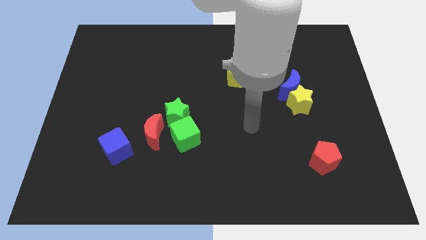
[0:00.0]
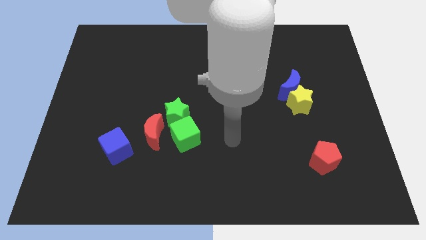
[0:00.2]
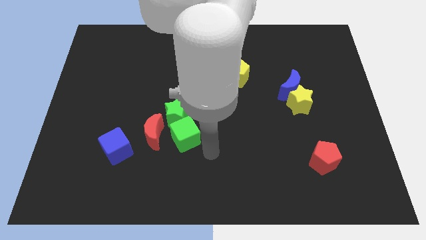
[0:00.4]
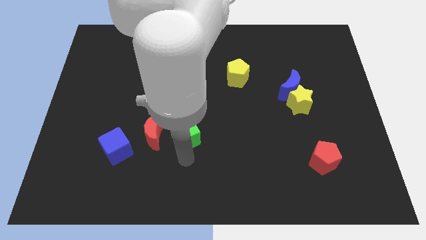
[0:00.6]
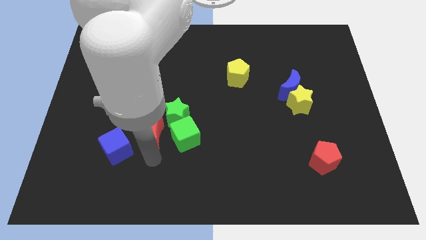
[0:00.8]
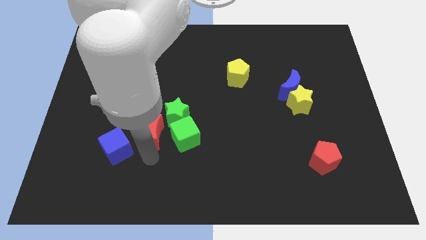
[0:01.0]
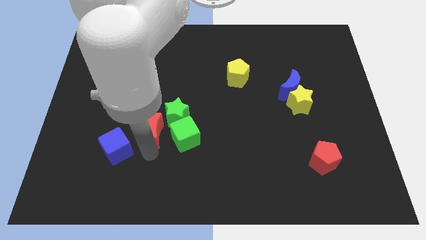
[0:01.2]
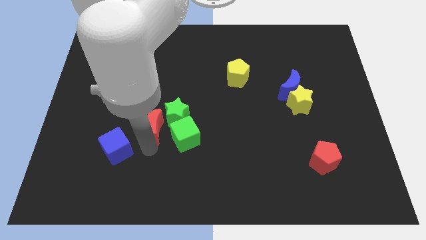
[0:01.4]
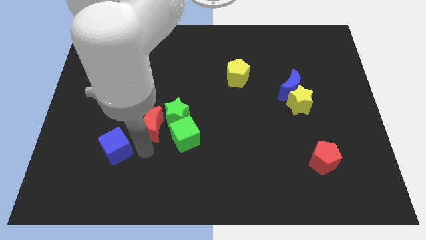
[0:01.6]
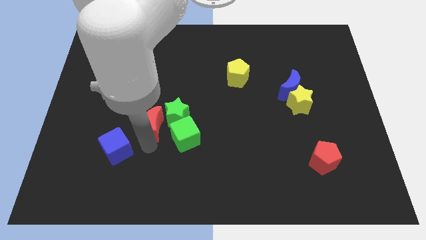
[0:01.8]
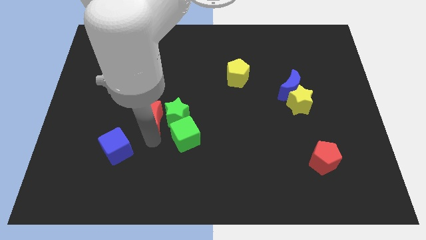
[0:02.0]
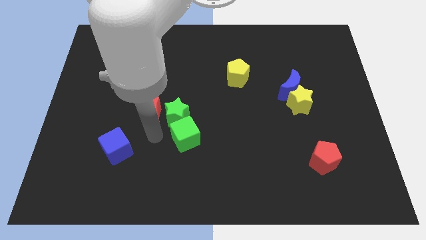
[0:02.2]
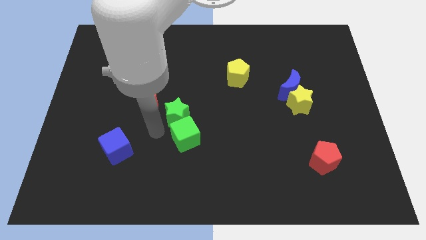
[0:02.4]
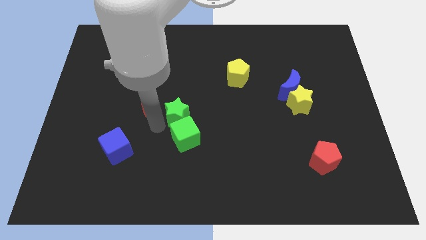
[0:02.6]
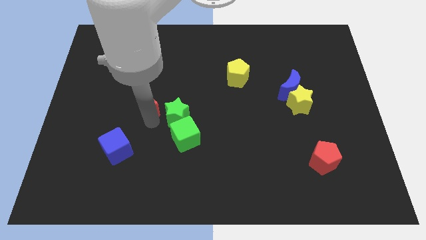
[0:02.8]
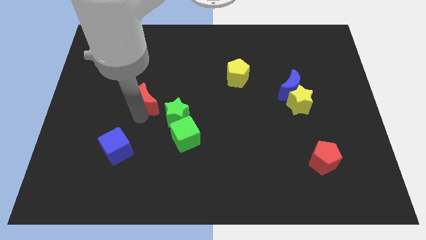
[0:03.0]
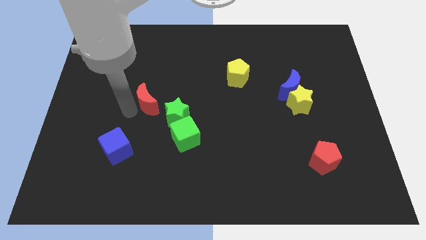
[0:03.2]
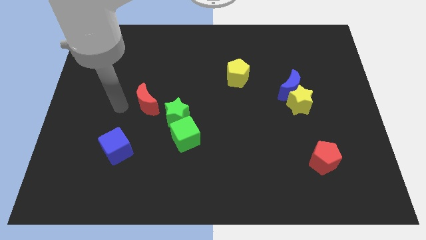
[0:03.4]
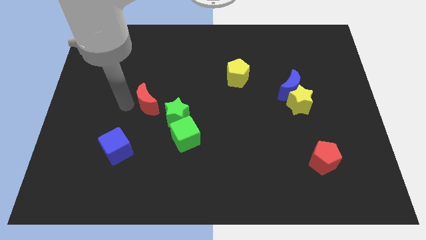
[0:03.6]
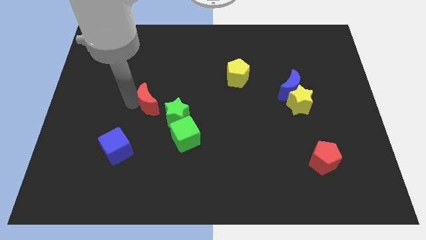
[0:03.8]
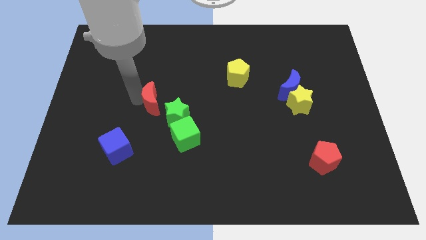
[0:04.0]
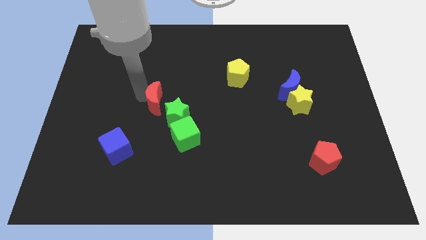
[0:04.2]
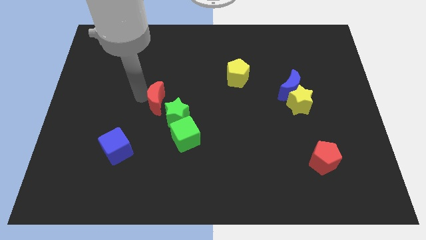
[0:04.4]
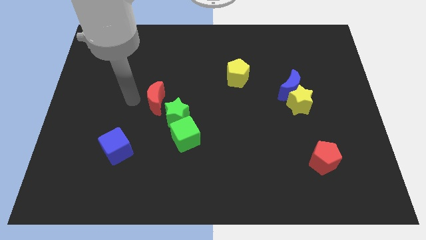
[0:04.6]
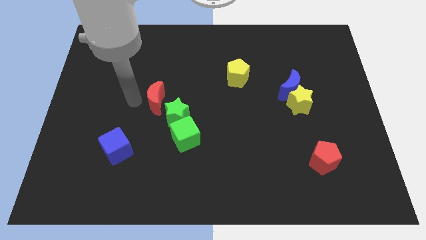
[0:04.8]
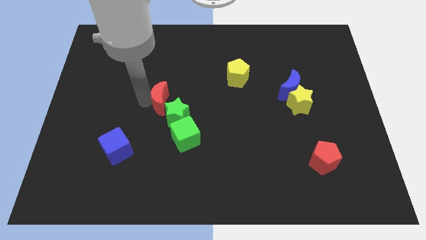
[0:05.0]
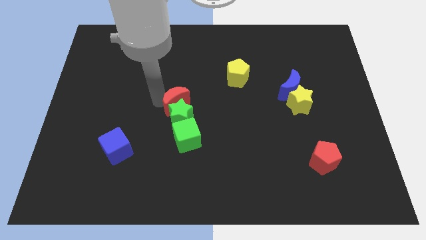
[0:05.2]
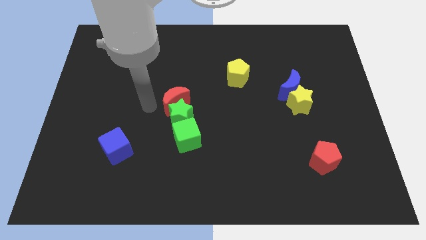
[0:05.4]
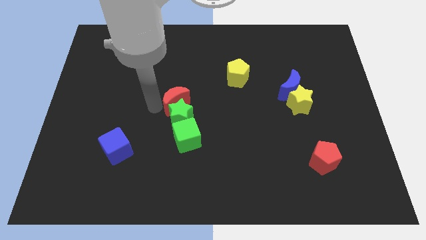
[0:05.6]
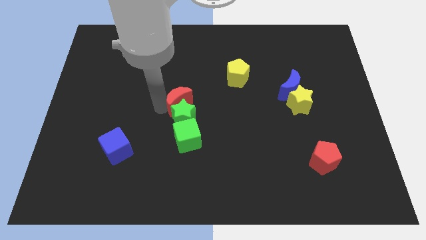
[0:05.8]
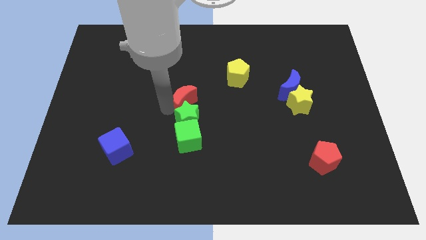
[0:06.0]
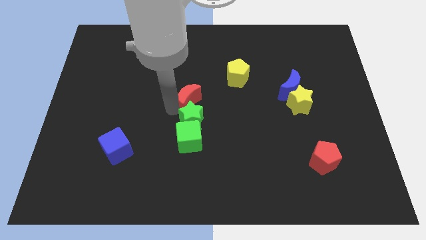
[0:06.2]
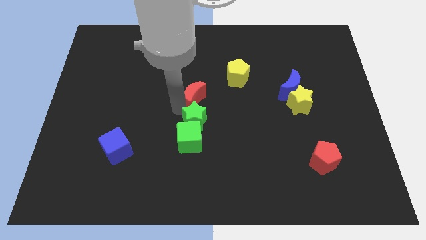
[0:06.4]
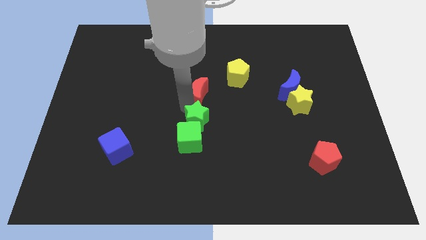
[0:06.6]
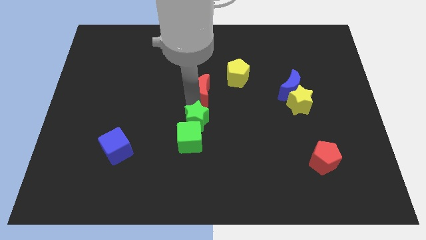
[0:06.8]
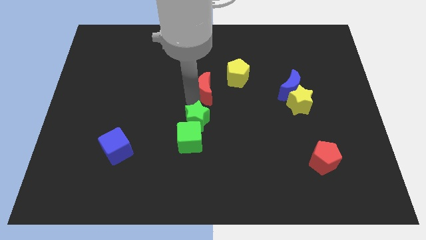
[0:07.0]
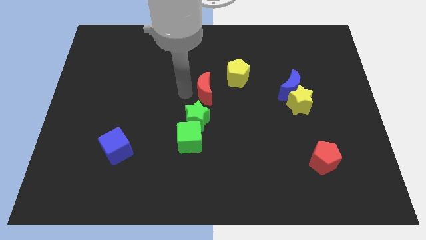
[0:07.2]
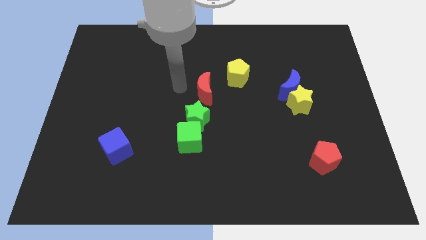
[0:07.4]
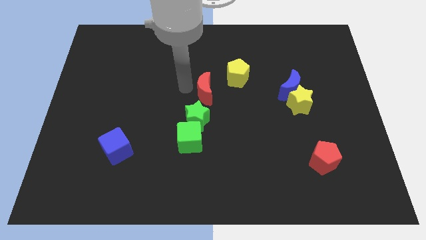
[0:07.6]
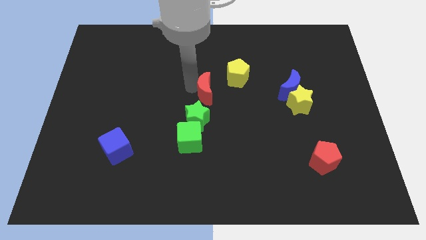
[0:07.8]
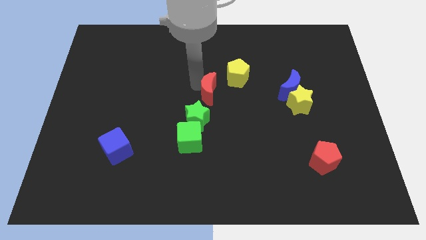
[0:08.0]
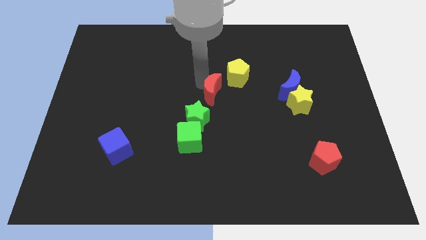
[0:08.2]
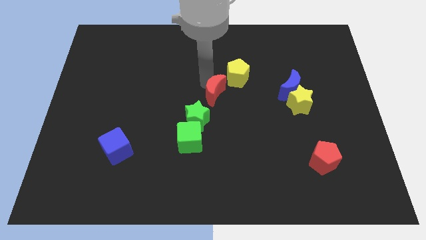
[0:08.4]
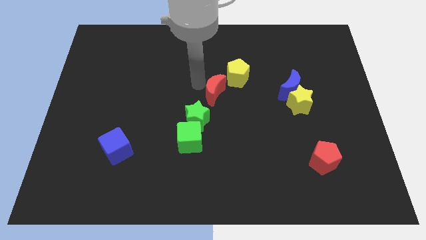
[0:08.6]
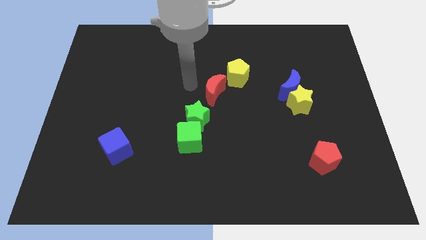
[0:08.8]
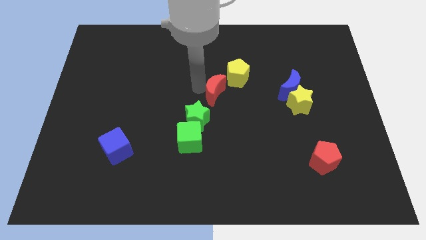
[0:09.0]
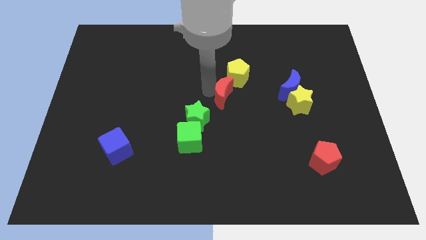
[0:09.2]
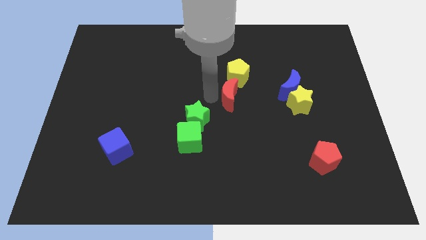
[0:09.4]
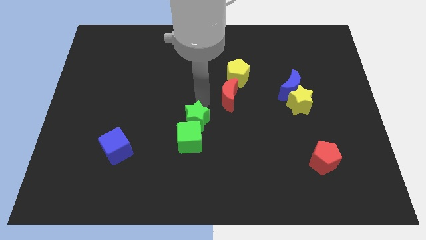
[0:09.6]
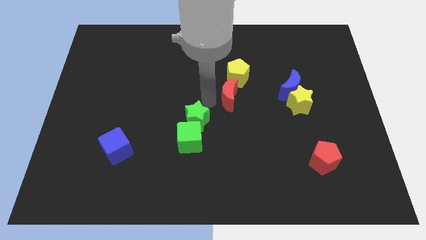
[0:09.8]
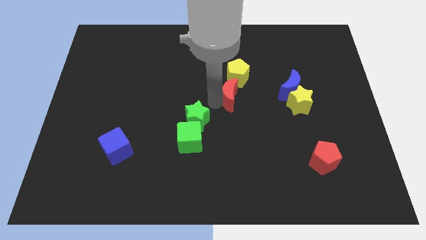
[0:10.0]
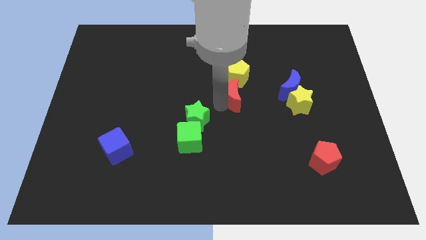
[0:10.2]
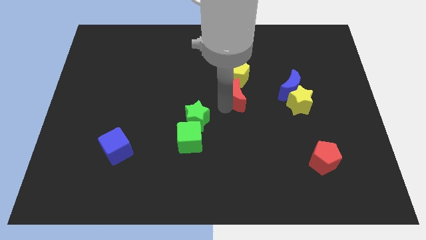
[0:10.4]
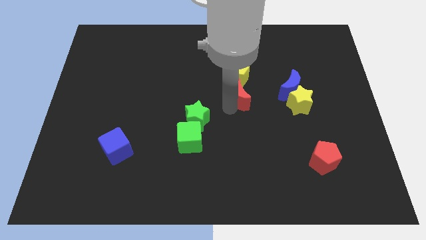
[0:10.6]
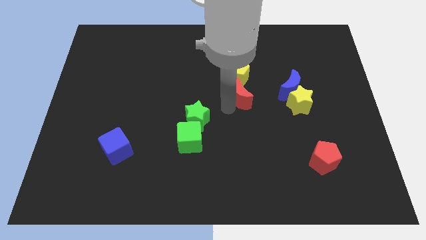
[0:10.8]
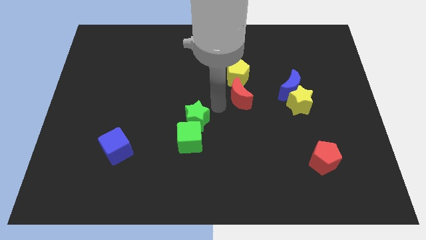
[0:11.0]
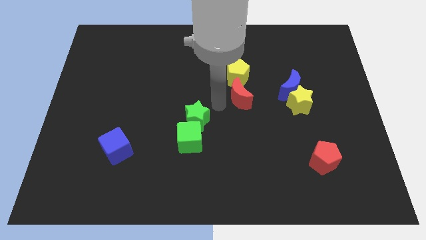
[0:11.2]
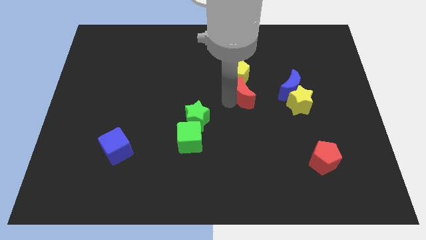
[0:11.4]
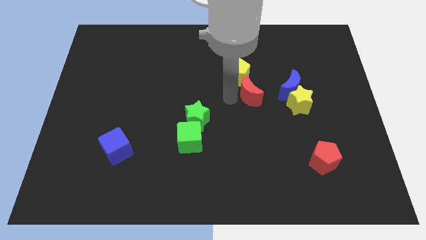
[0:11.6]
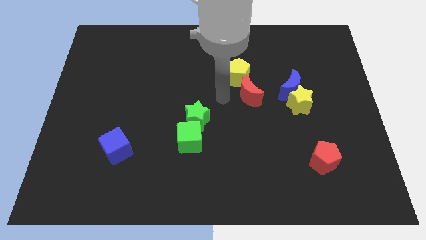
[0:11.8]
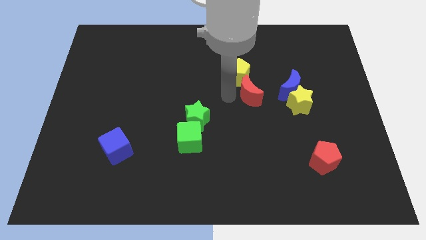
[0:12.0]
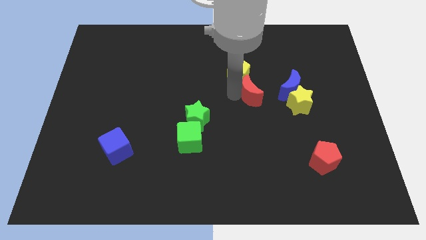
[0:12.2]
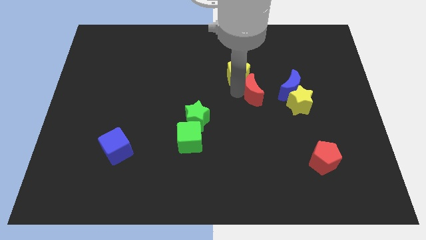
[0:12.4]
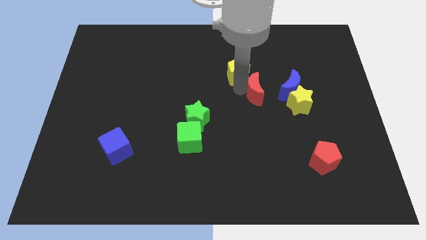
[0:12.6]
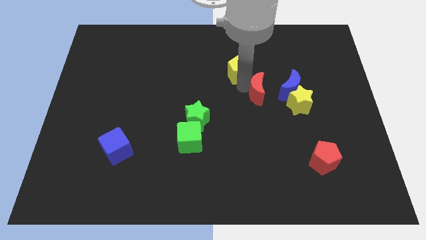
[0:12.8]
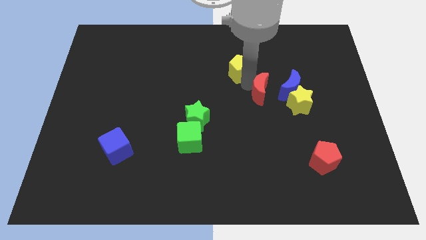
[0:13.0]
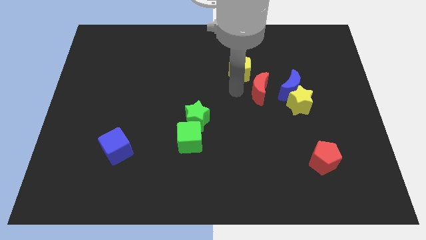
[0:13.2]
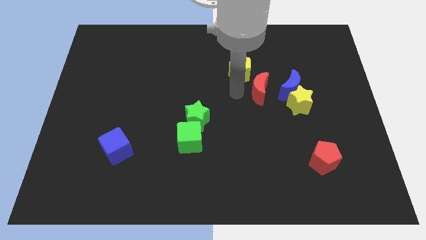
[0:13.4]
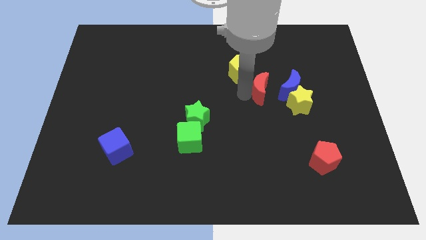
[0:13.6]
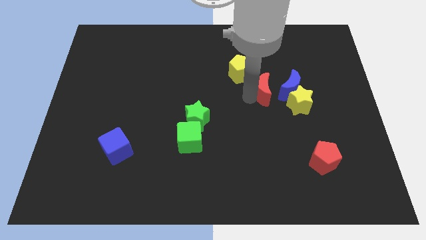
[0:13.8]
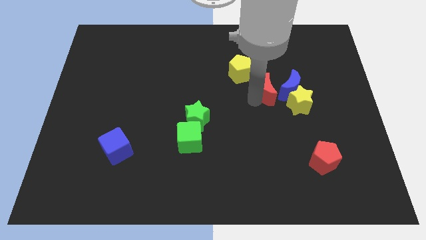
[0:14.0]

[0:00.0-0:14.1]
put the red moon towards the blue moon

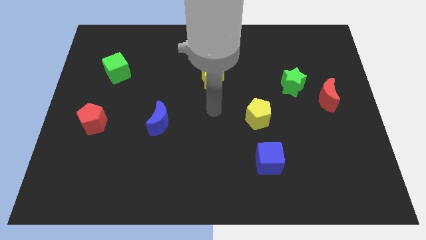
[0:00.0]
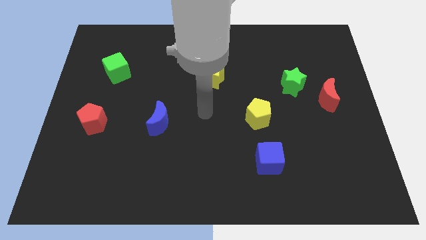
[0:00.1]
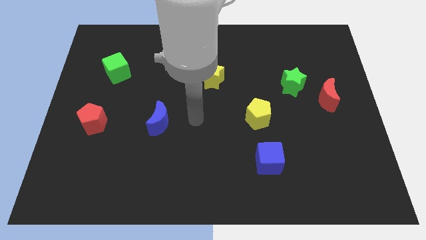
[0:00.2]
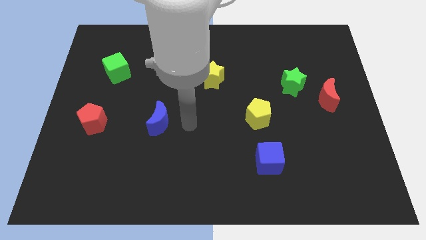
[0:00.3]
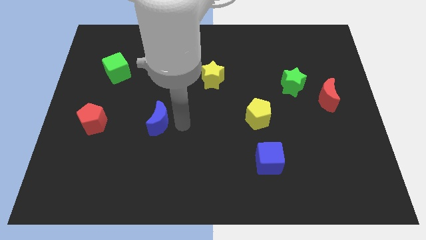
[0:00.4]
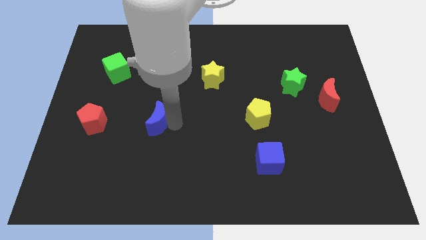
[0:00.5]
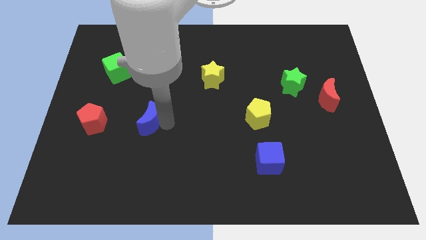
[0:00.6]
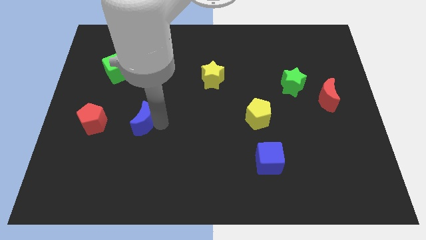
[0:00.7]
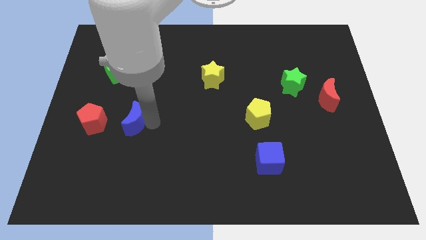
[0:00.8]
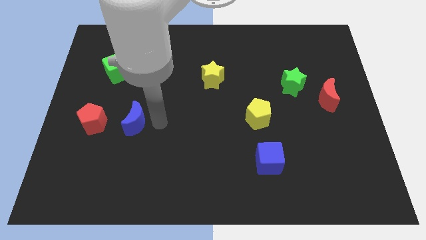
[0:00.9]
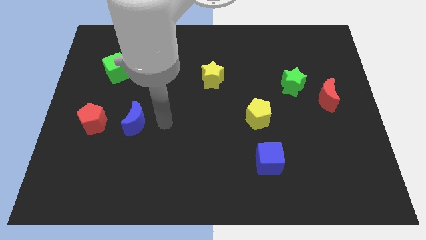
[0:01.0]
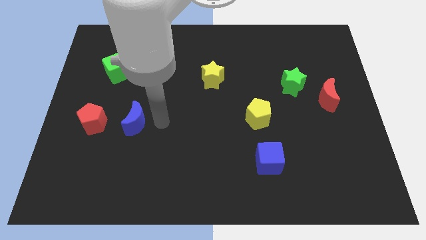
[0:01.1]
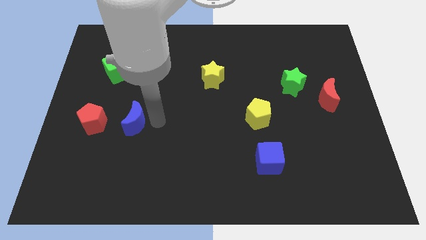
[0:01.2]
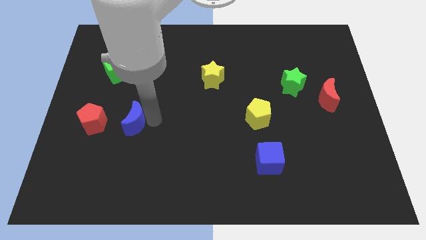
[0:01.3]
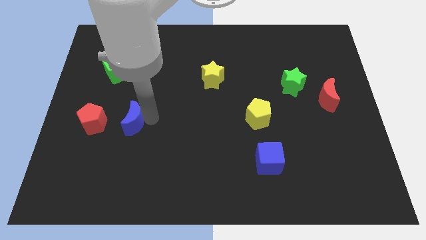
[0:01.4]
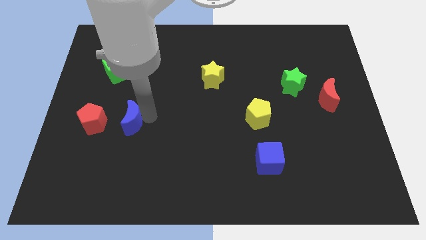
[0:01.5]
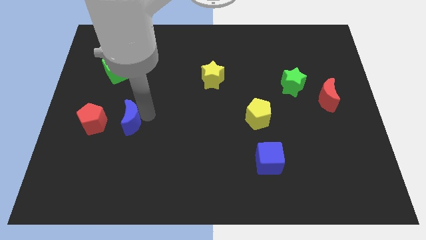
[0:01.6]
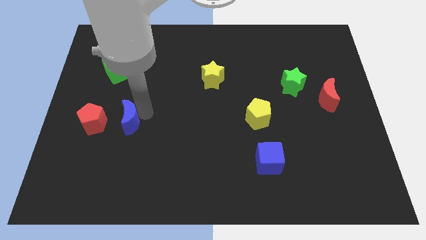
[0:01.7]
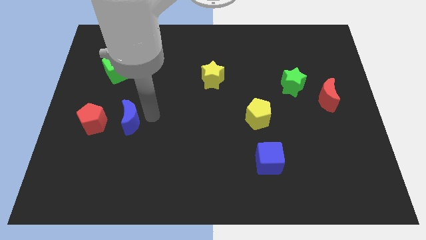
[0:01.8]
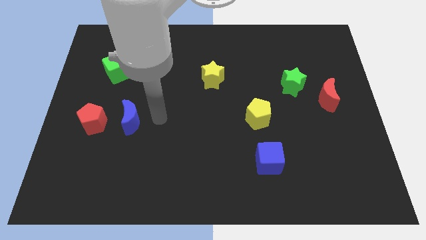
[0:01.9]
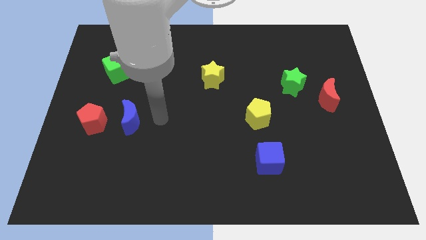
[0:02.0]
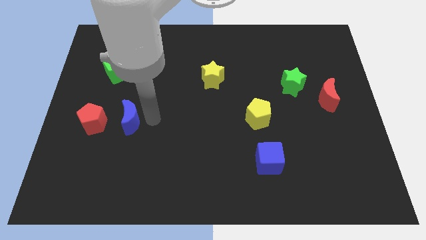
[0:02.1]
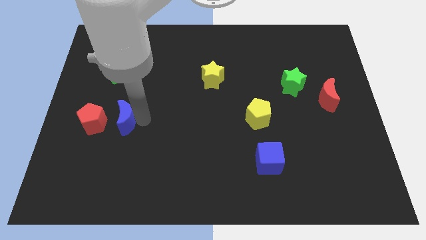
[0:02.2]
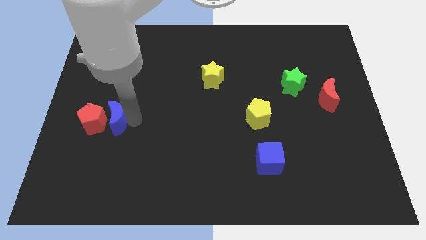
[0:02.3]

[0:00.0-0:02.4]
slide the blue moon next to the red pentagon
